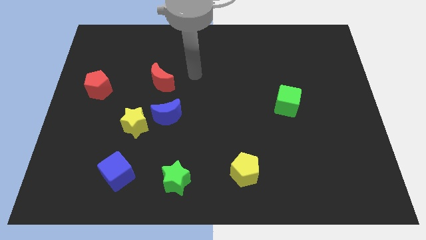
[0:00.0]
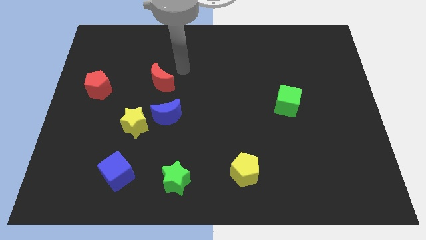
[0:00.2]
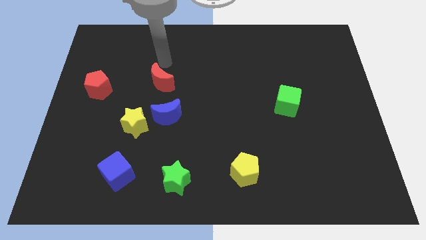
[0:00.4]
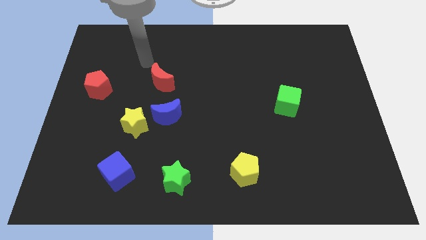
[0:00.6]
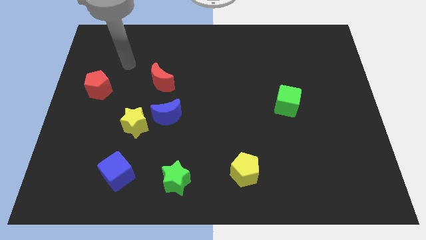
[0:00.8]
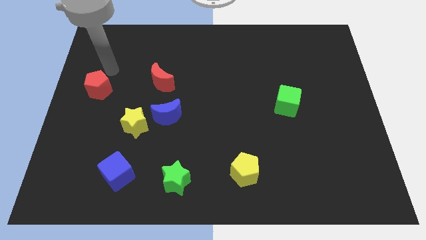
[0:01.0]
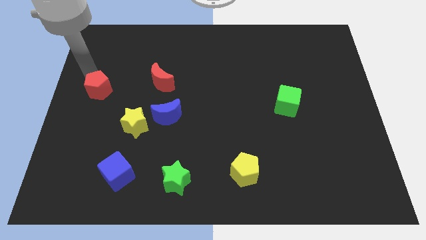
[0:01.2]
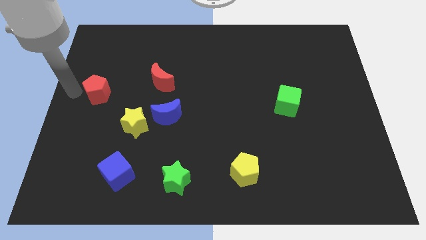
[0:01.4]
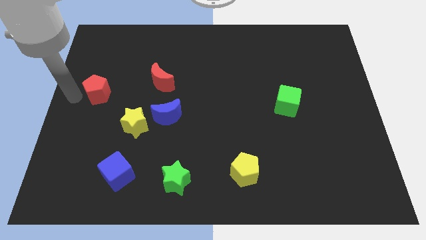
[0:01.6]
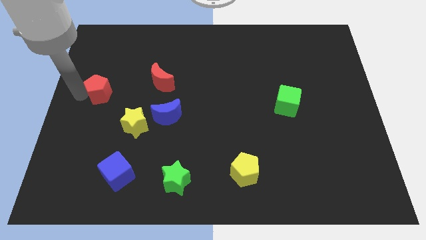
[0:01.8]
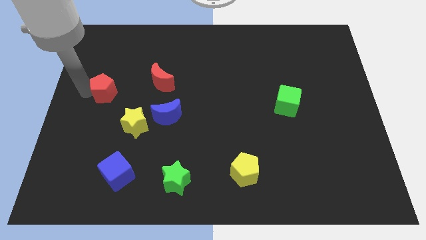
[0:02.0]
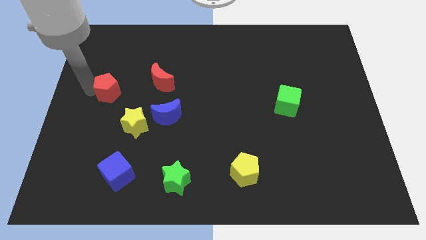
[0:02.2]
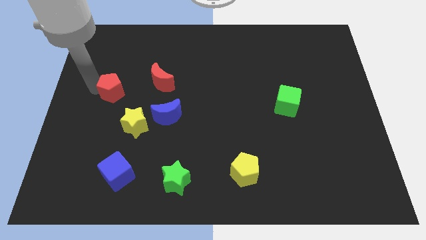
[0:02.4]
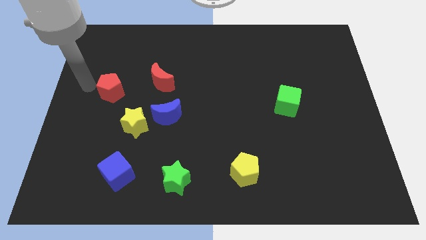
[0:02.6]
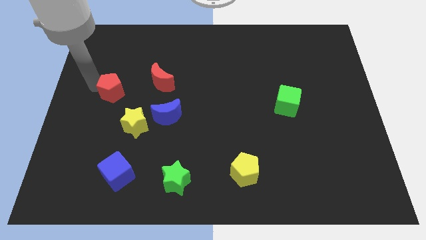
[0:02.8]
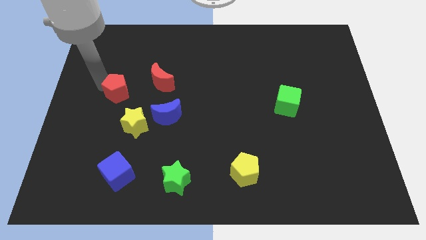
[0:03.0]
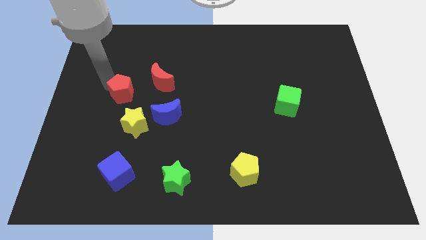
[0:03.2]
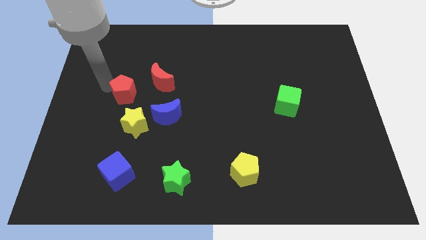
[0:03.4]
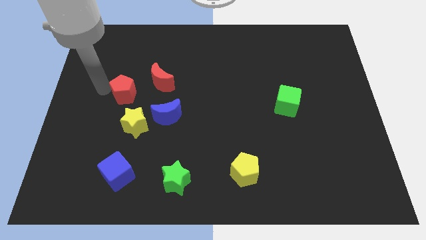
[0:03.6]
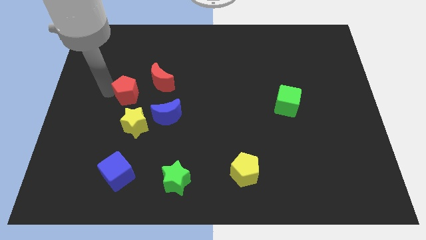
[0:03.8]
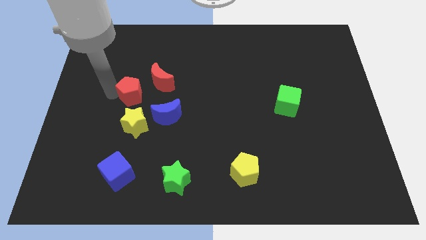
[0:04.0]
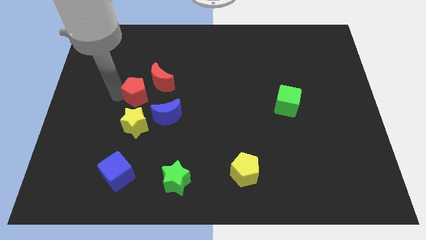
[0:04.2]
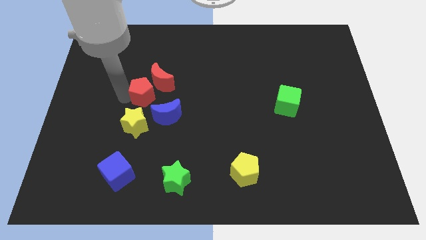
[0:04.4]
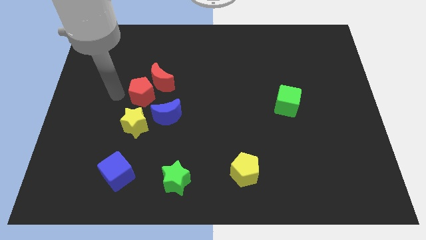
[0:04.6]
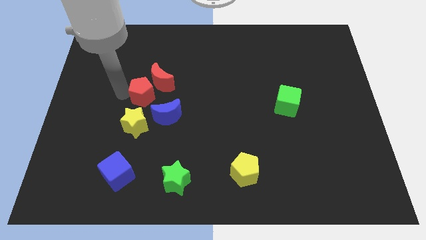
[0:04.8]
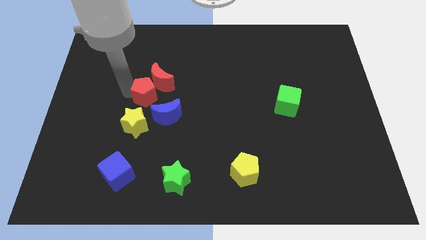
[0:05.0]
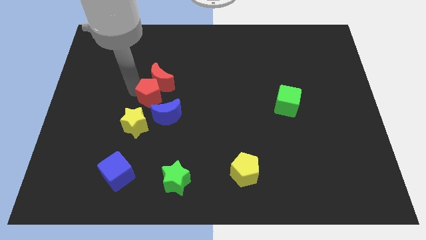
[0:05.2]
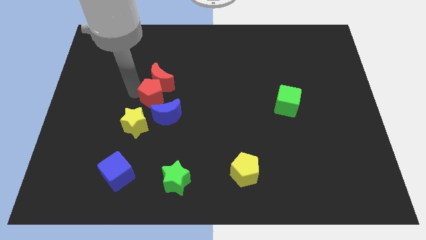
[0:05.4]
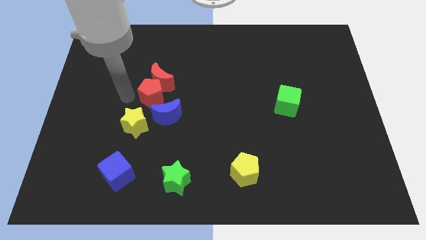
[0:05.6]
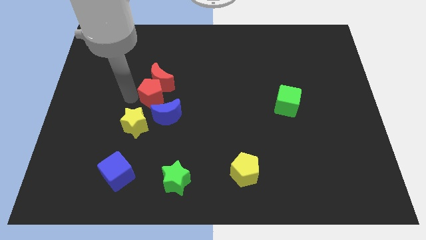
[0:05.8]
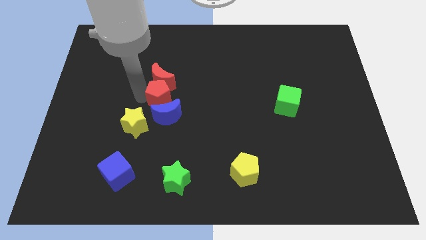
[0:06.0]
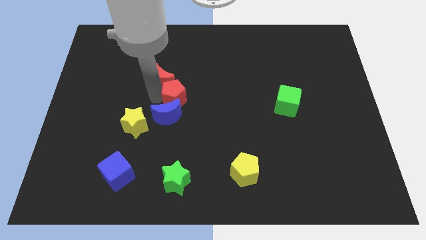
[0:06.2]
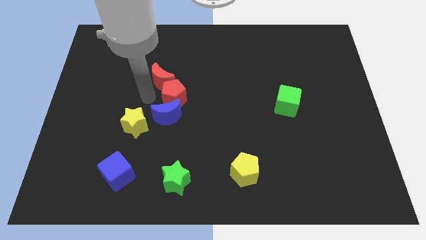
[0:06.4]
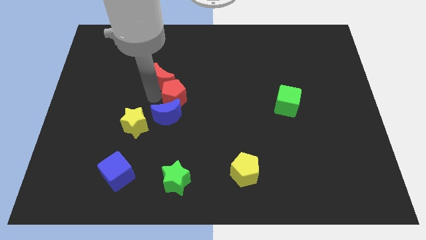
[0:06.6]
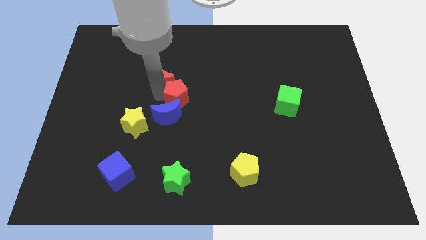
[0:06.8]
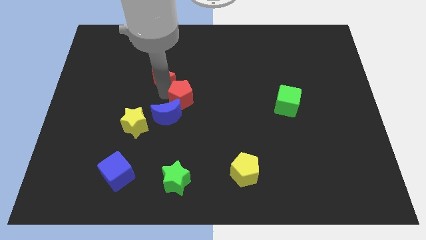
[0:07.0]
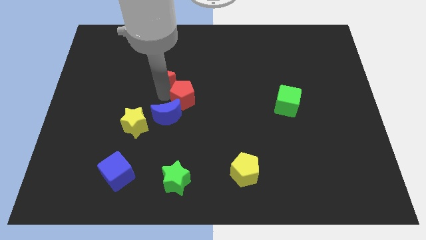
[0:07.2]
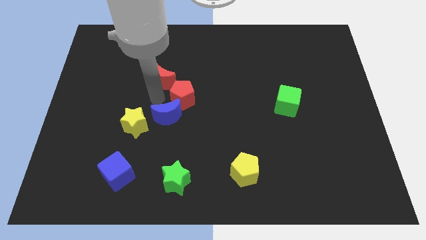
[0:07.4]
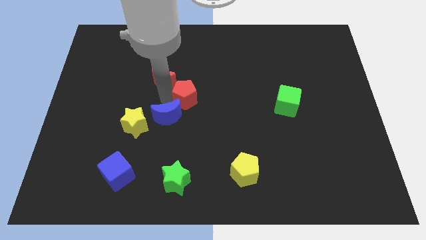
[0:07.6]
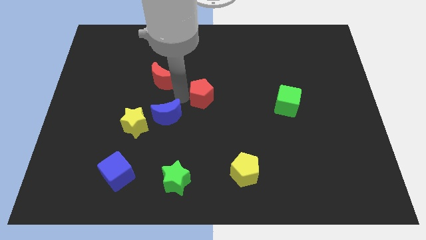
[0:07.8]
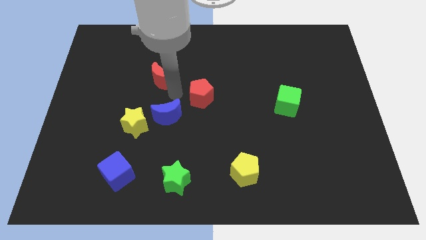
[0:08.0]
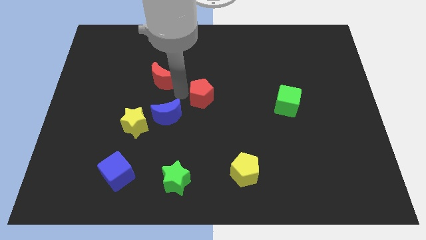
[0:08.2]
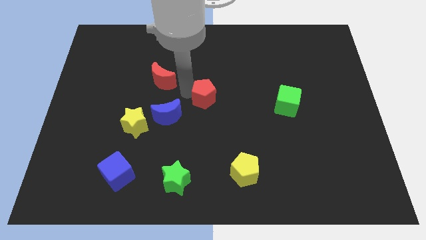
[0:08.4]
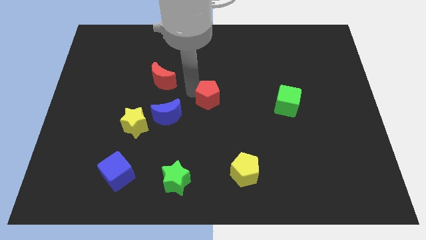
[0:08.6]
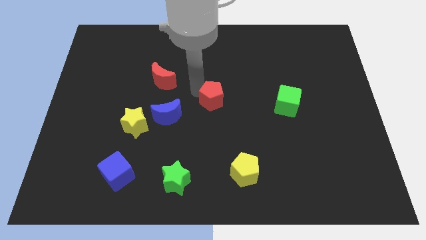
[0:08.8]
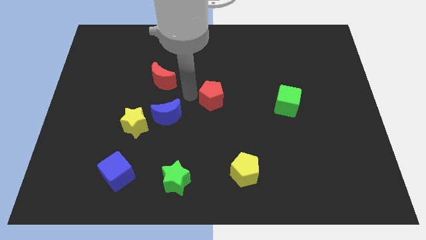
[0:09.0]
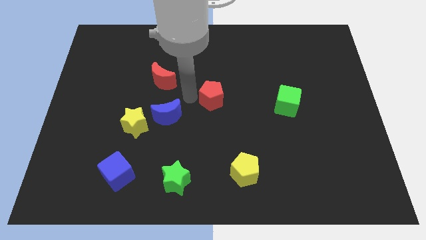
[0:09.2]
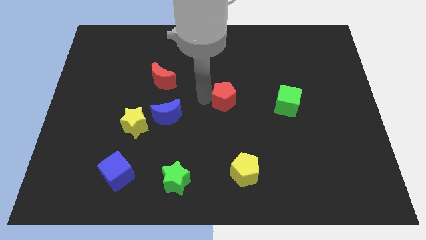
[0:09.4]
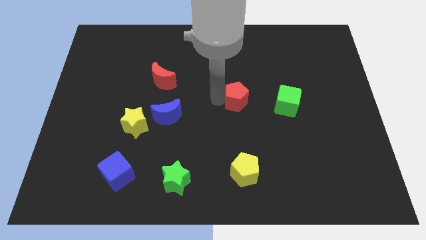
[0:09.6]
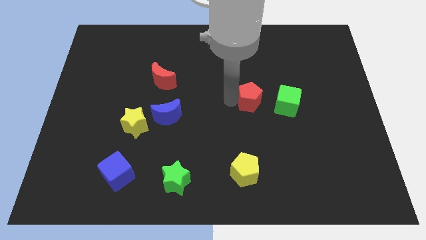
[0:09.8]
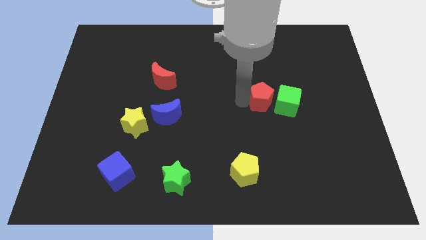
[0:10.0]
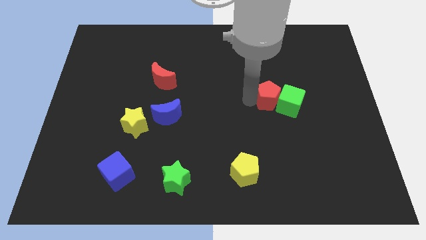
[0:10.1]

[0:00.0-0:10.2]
slide the red pentagon to the green cube

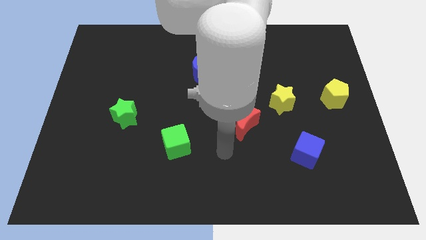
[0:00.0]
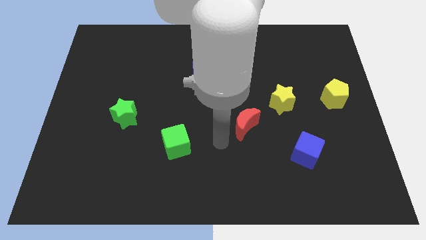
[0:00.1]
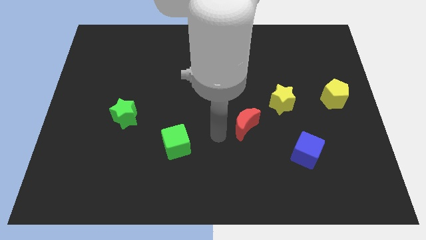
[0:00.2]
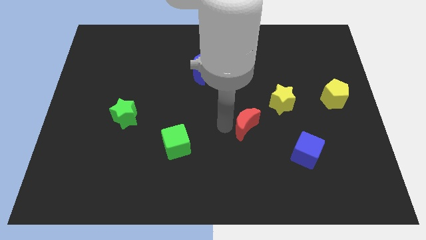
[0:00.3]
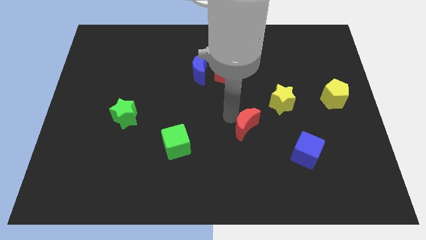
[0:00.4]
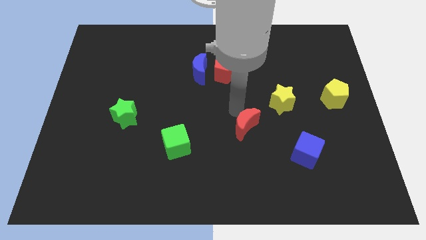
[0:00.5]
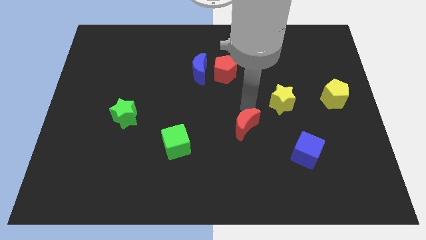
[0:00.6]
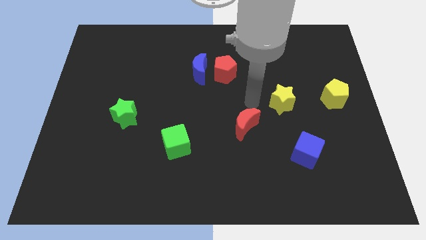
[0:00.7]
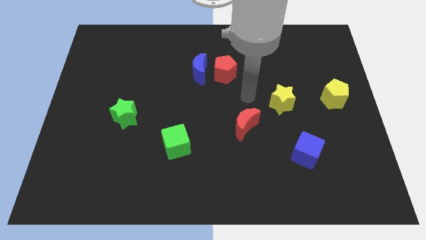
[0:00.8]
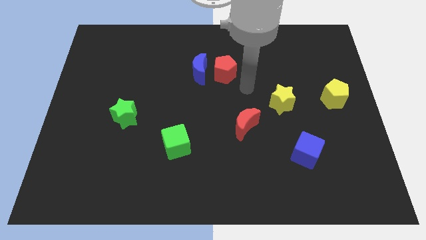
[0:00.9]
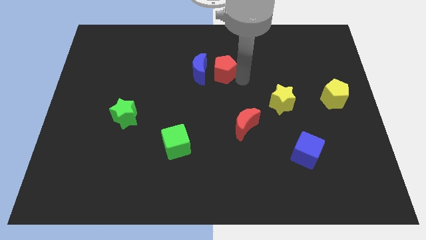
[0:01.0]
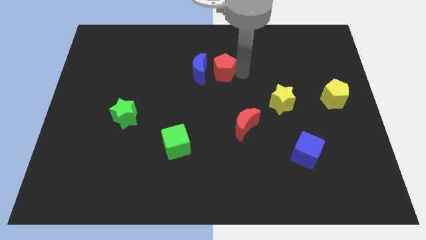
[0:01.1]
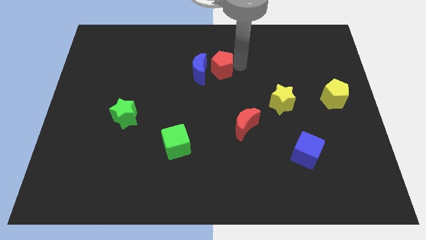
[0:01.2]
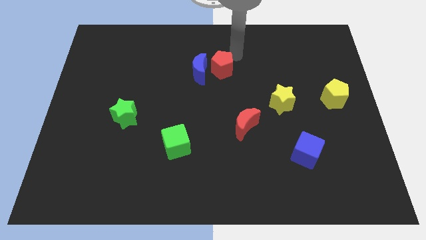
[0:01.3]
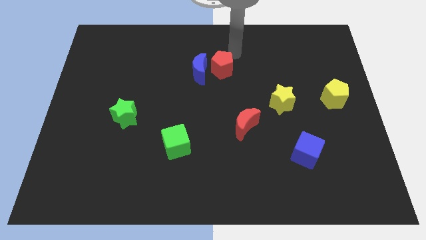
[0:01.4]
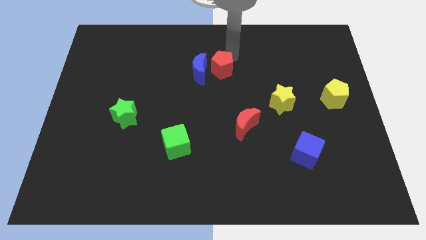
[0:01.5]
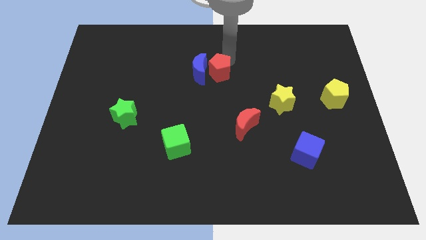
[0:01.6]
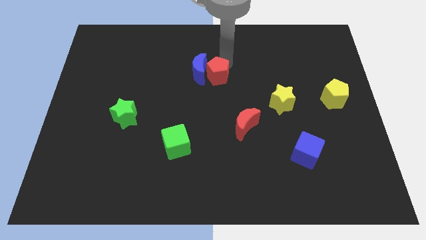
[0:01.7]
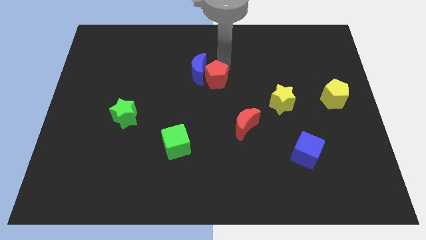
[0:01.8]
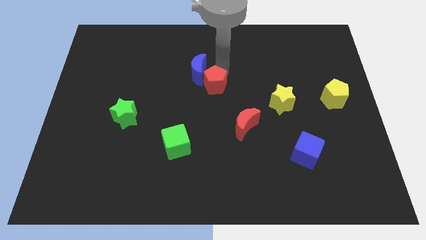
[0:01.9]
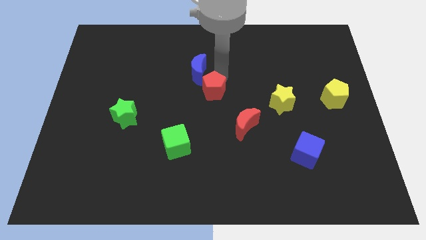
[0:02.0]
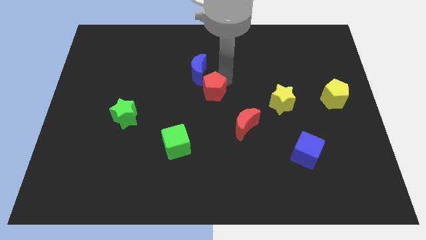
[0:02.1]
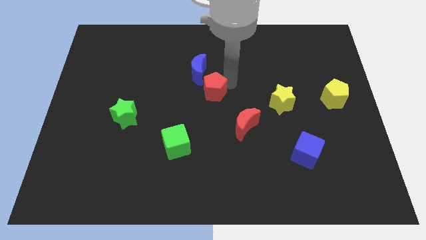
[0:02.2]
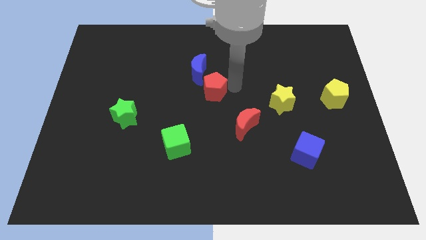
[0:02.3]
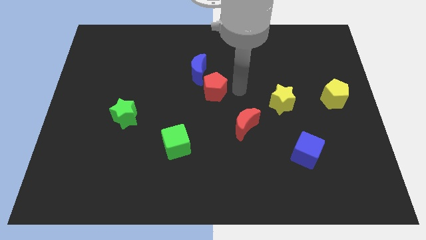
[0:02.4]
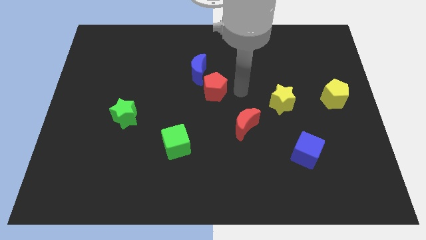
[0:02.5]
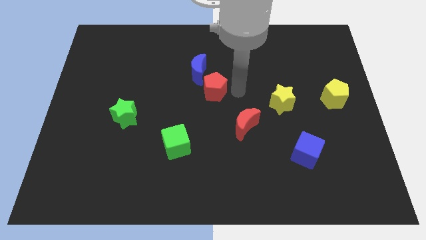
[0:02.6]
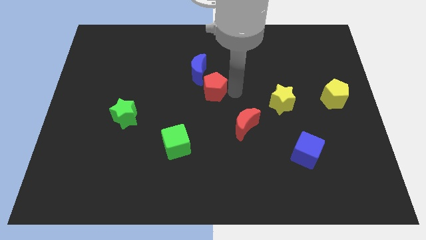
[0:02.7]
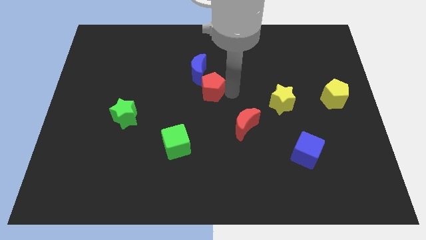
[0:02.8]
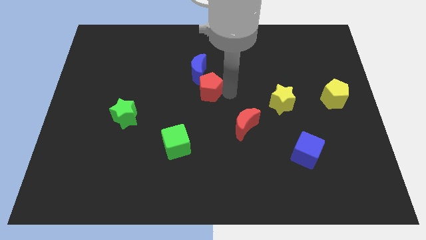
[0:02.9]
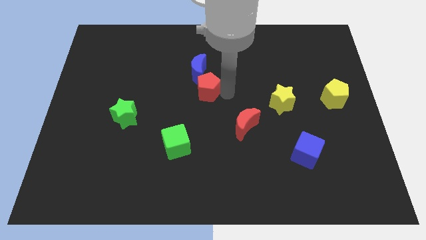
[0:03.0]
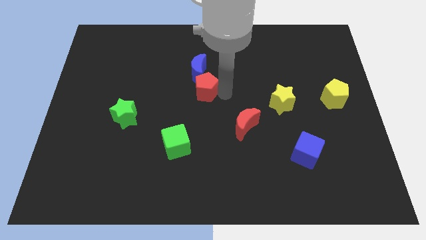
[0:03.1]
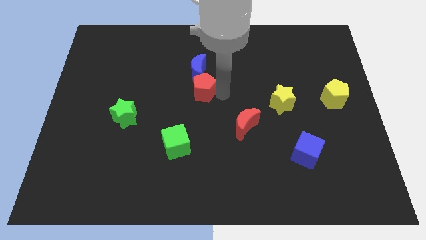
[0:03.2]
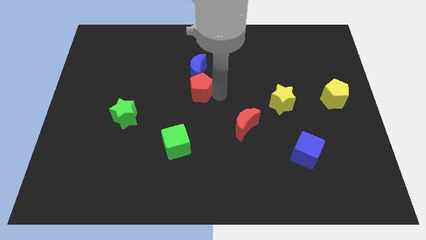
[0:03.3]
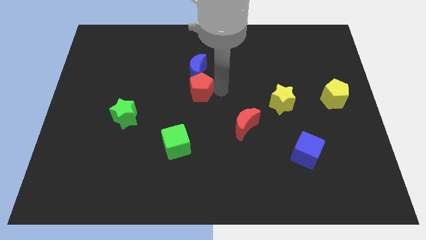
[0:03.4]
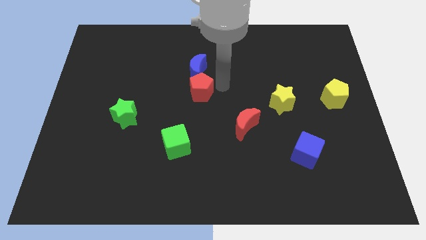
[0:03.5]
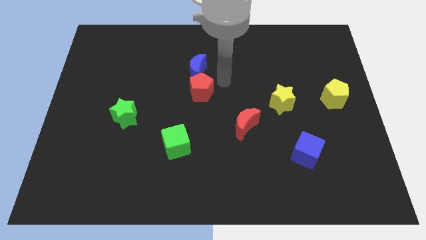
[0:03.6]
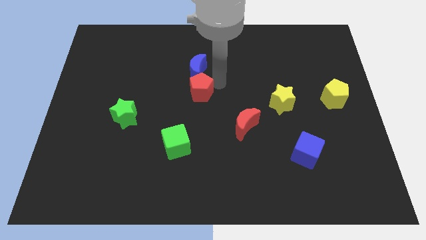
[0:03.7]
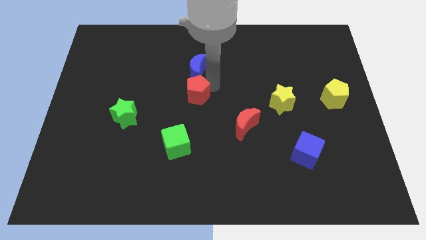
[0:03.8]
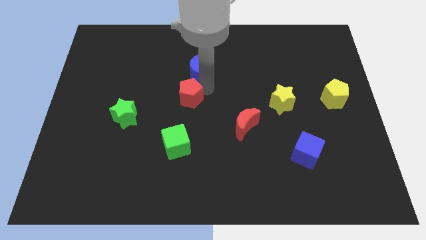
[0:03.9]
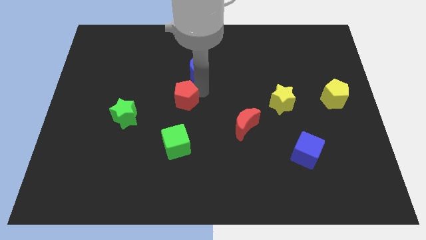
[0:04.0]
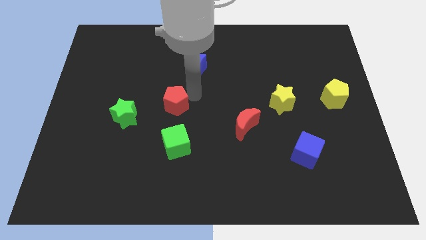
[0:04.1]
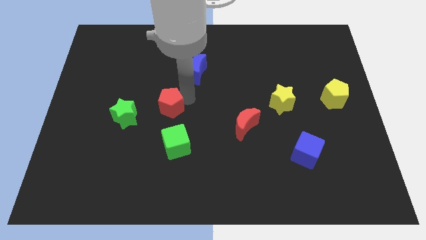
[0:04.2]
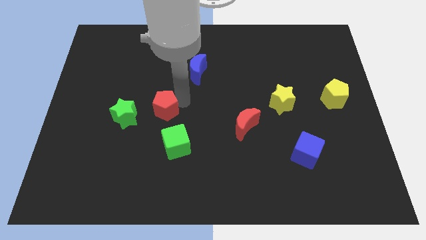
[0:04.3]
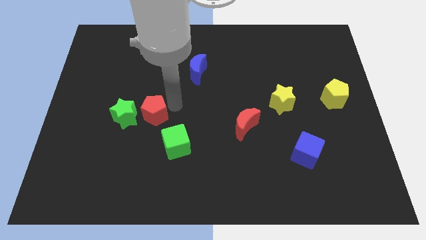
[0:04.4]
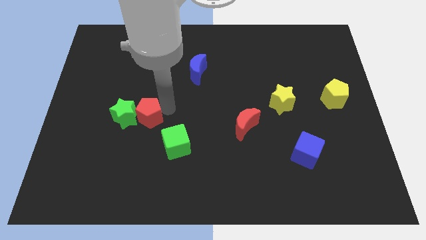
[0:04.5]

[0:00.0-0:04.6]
push the red pentagon towards the green star
